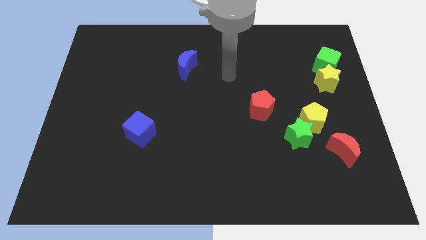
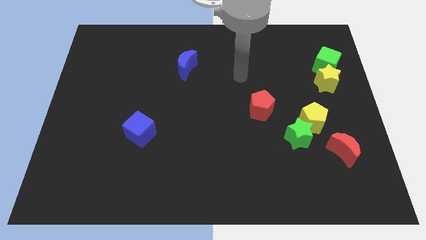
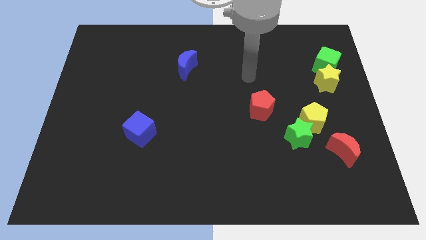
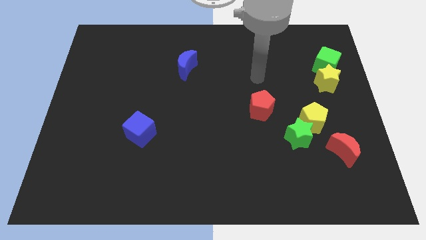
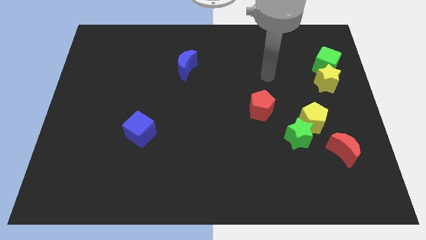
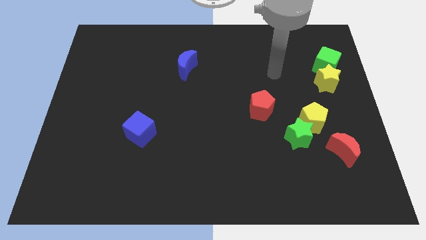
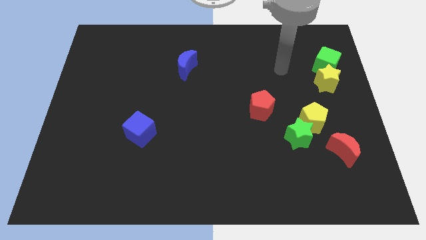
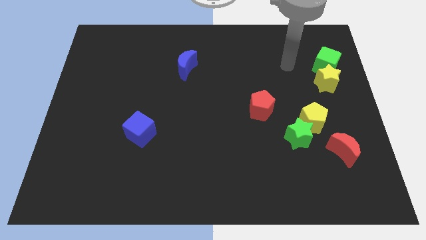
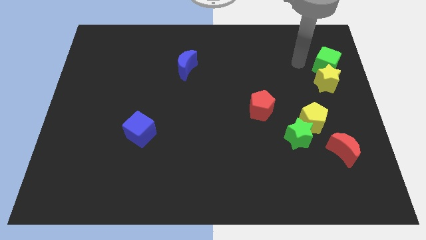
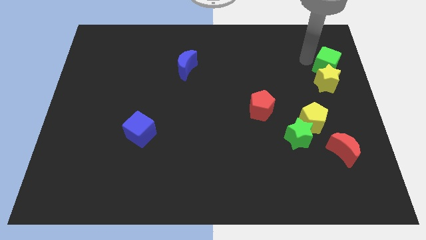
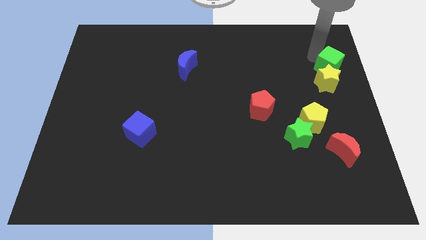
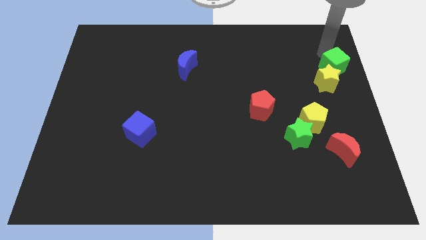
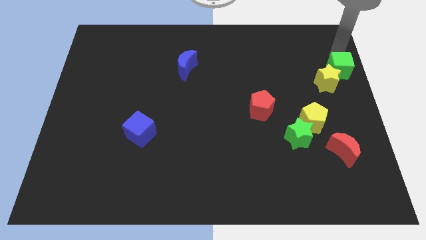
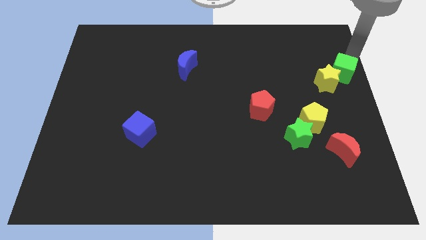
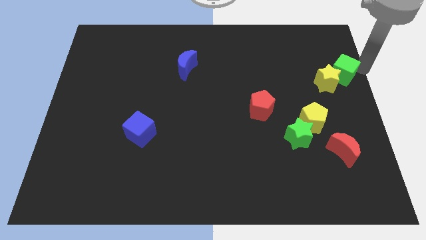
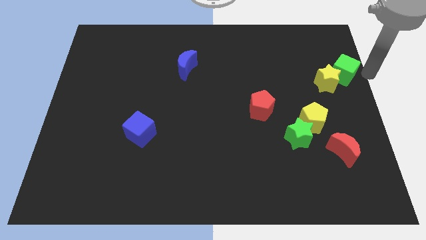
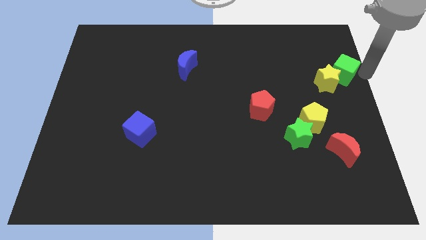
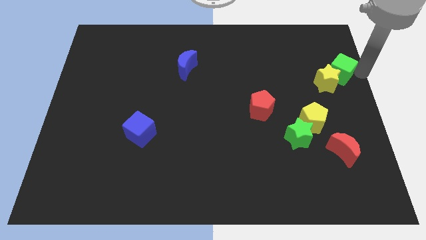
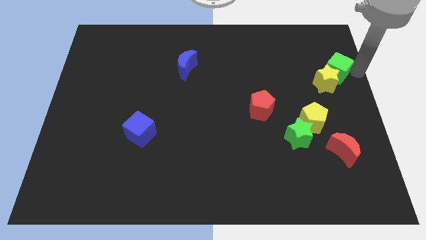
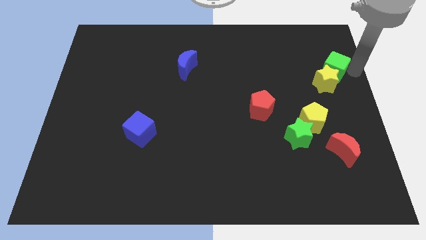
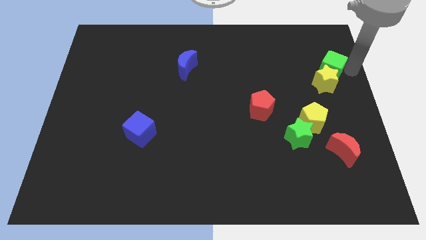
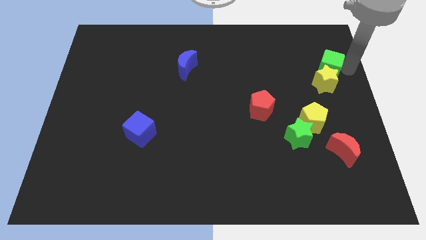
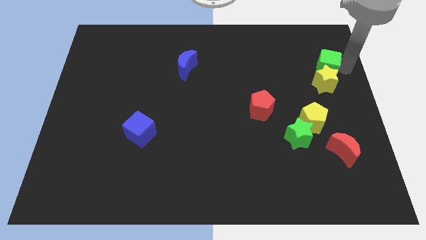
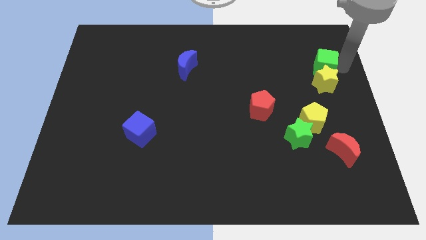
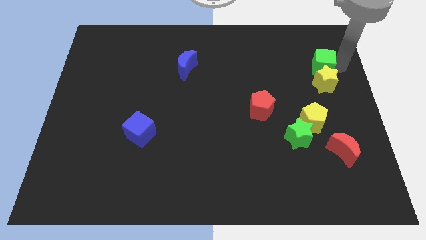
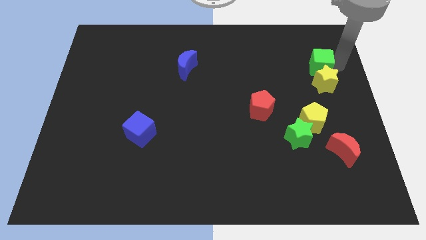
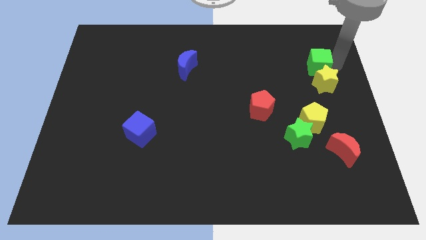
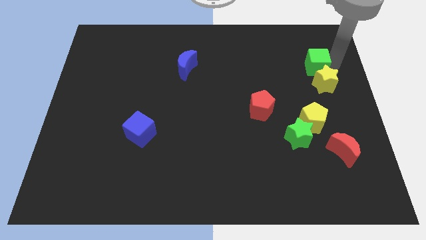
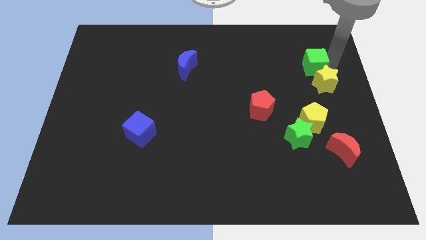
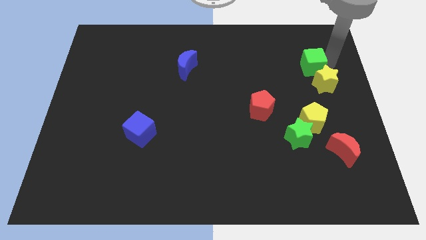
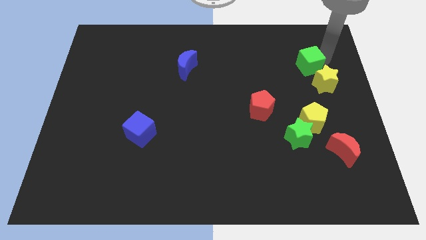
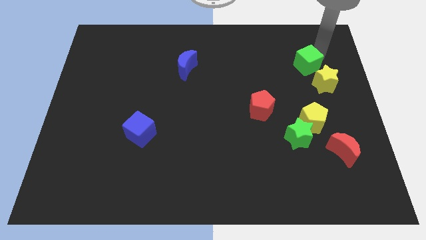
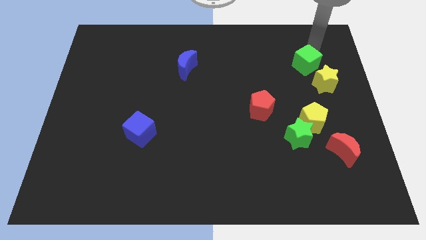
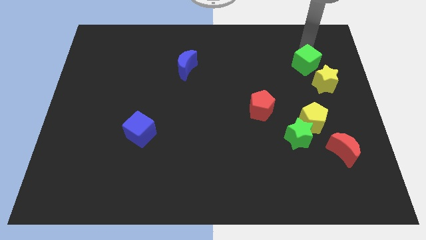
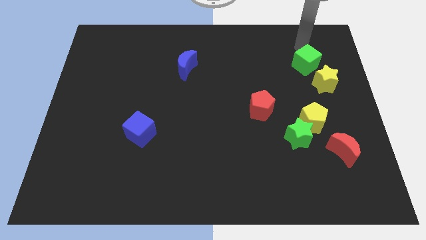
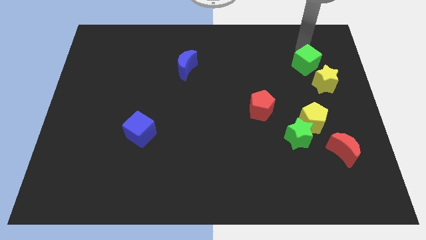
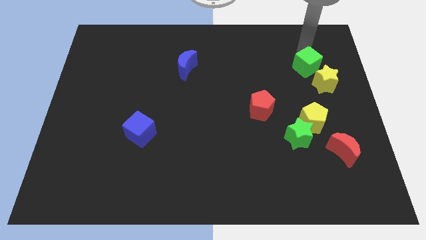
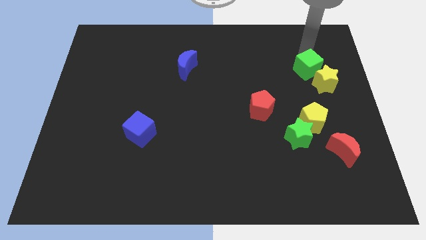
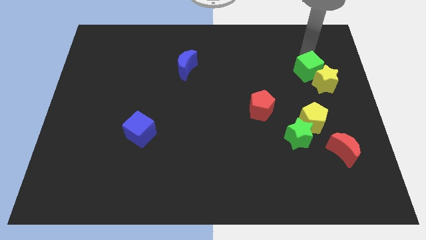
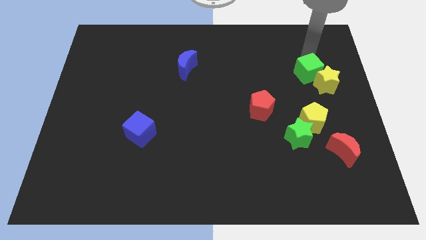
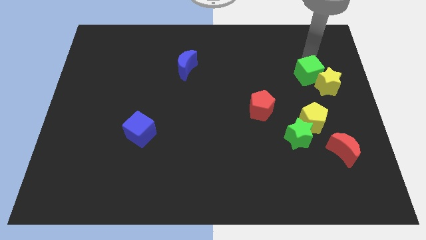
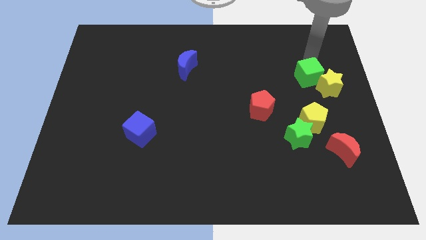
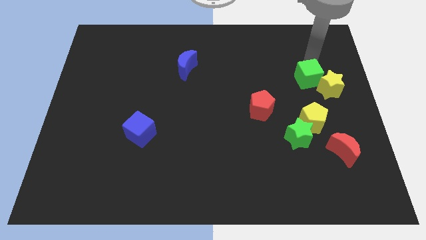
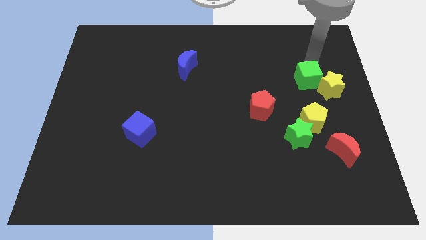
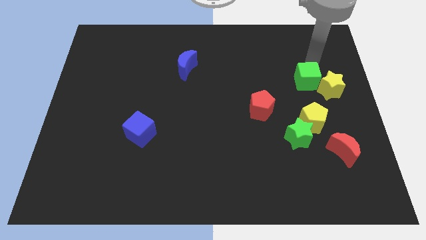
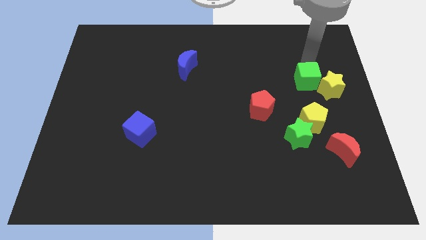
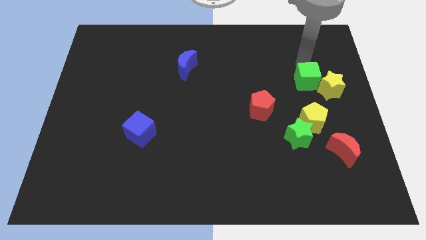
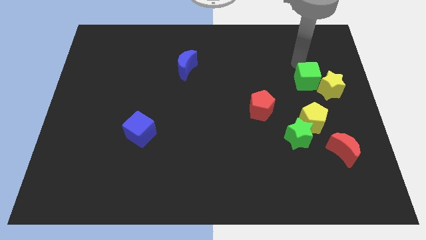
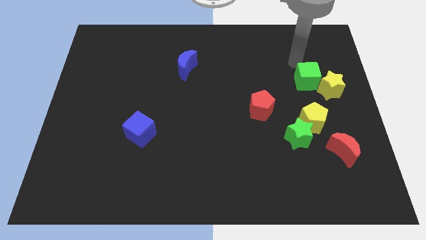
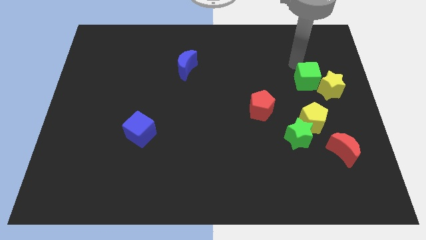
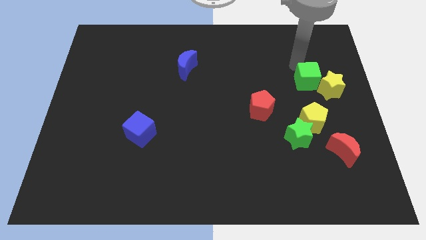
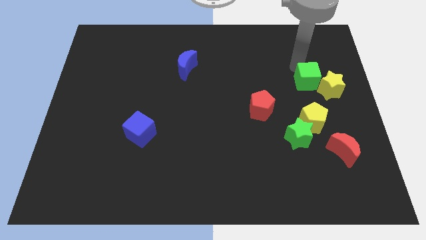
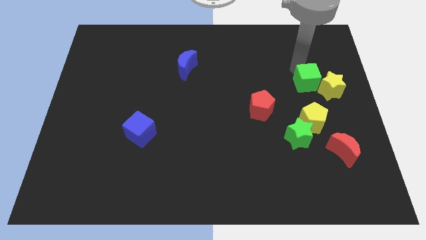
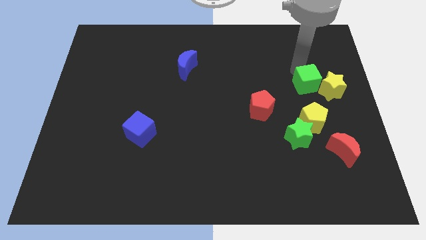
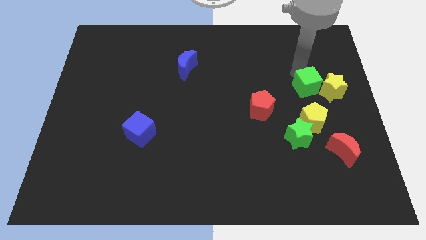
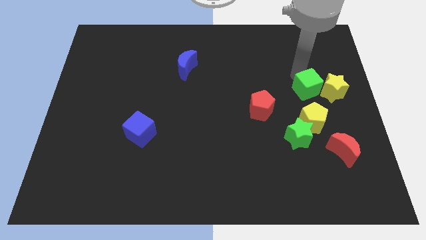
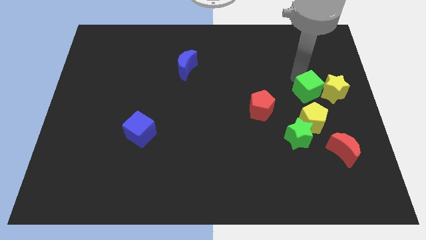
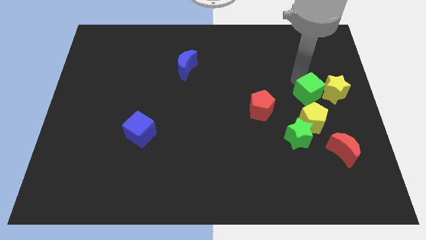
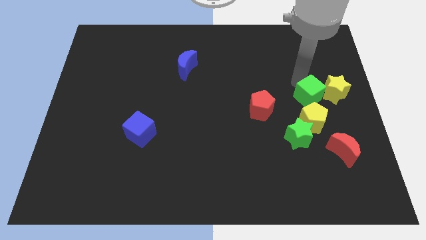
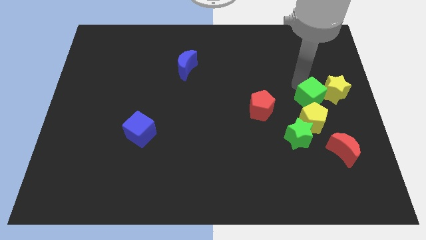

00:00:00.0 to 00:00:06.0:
move the green cube diagonally up and to the right of the yellow pentagon

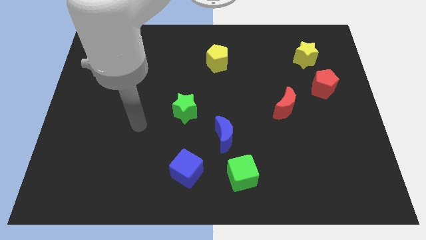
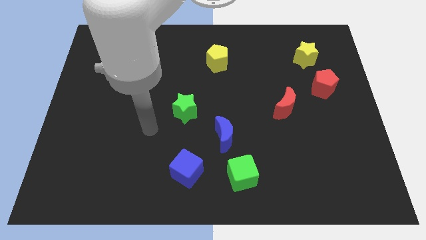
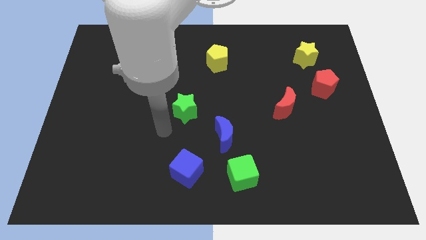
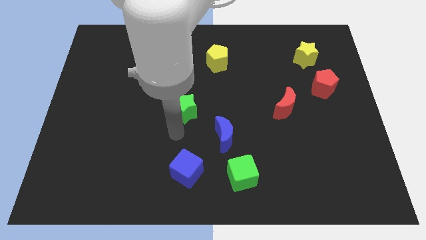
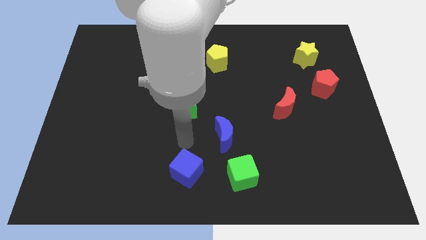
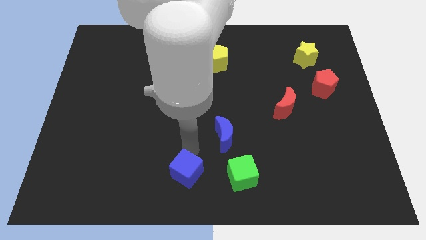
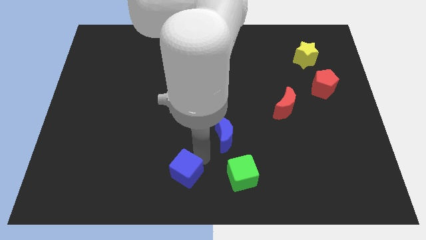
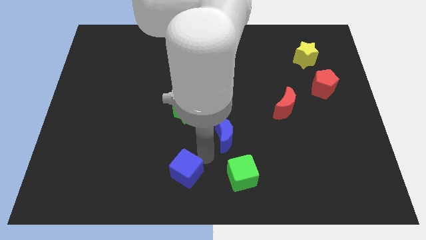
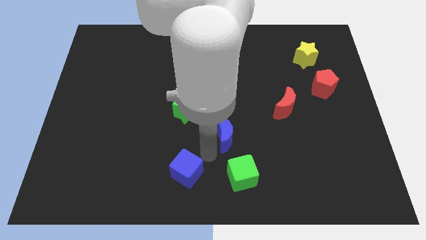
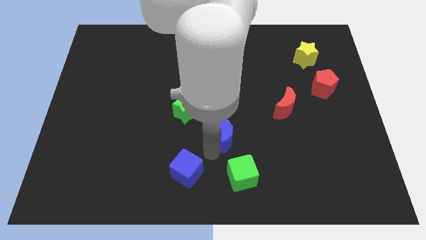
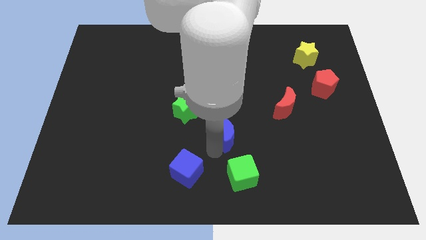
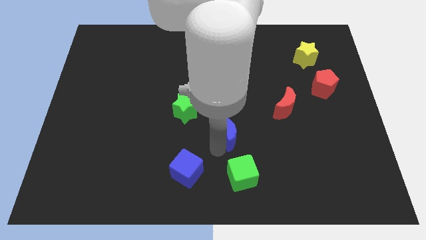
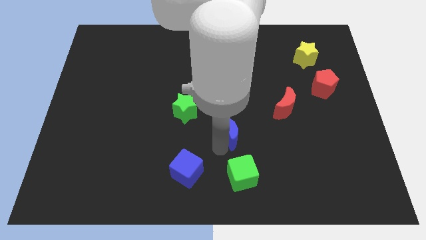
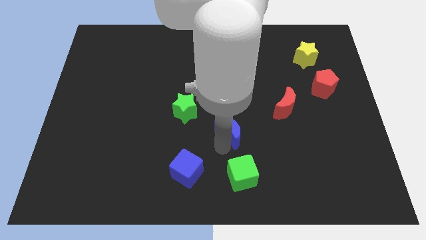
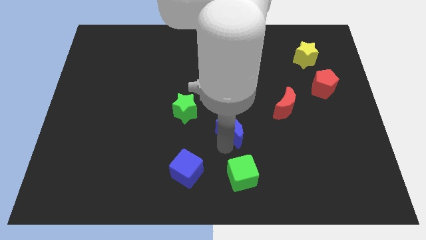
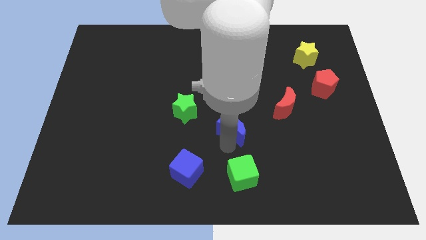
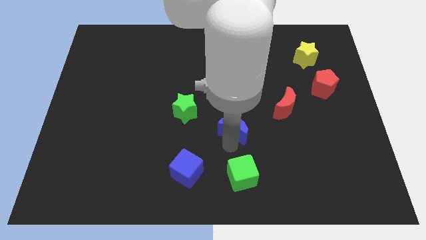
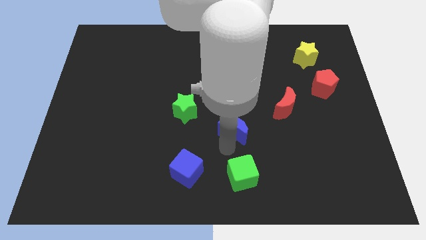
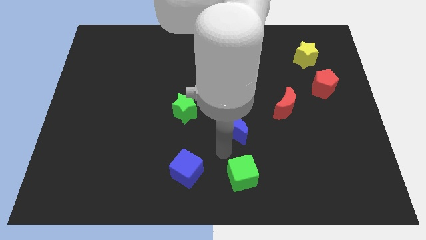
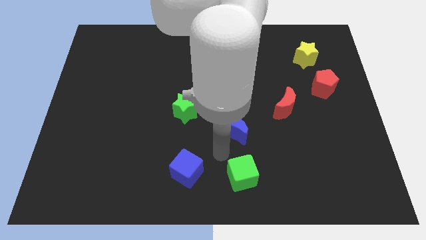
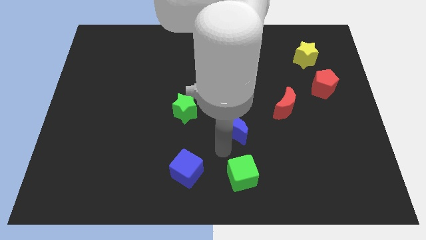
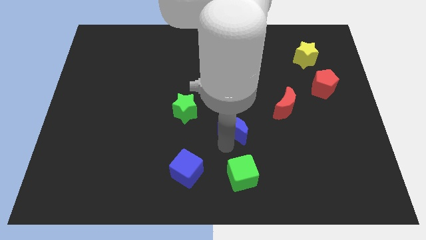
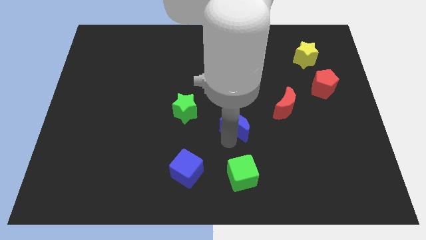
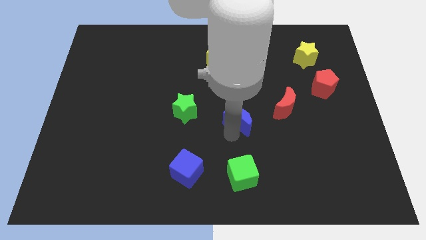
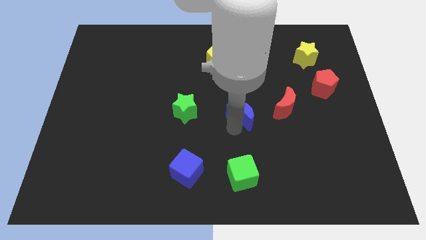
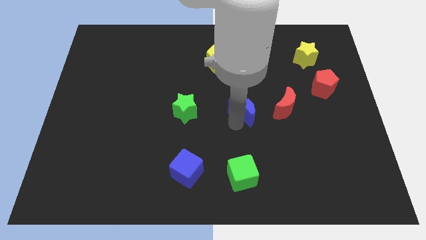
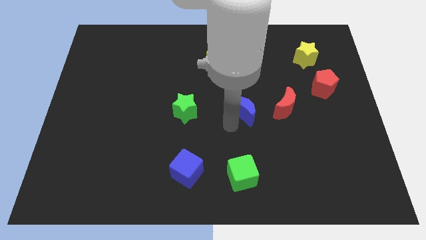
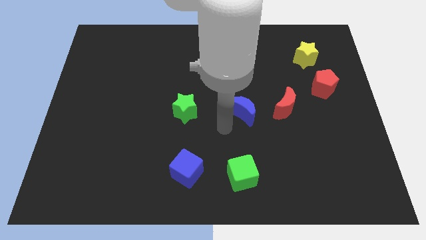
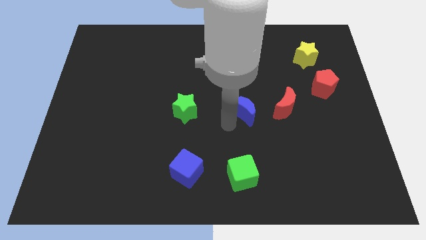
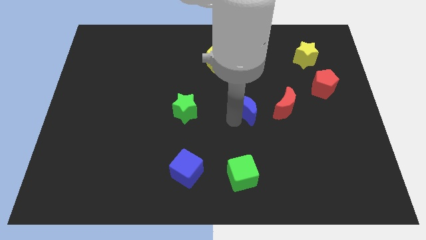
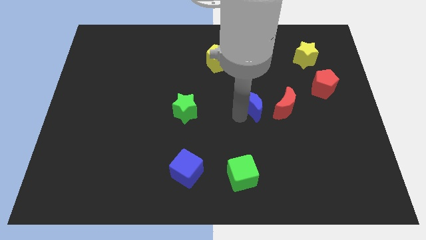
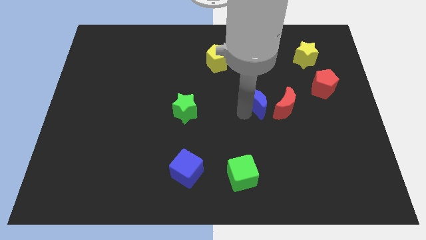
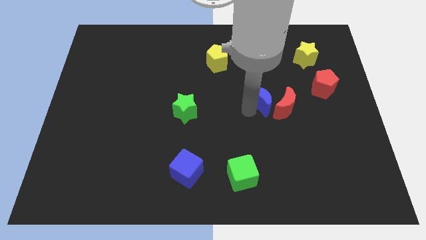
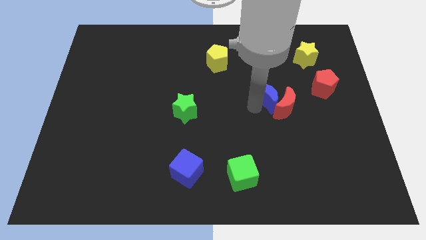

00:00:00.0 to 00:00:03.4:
put the blue moon just left of the red pentagon
